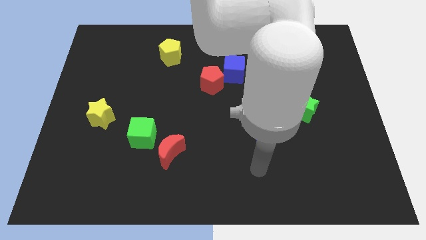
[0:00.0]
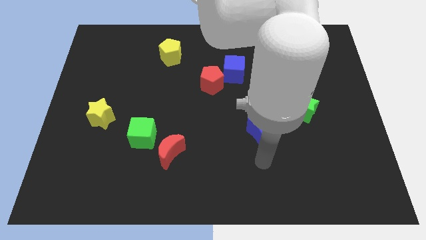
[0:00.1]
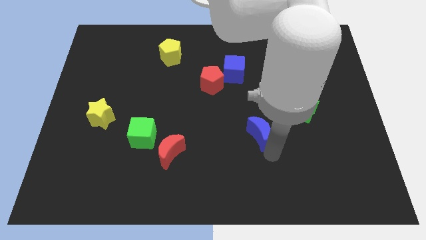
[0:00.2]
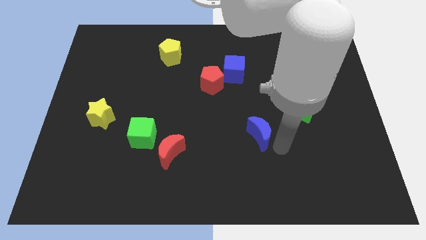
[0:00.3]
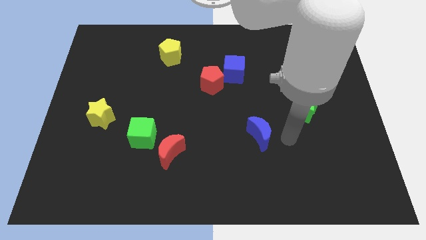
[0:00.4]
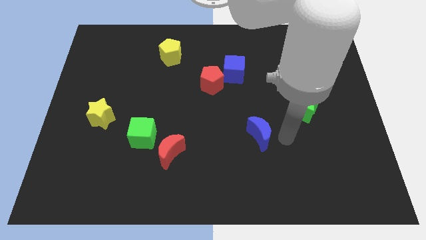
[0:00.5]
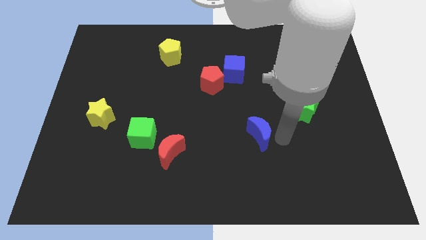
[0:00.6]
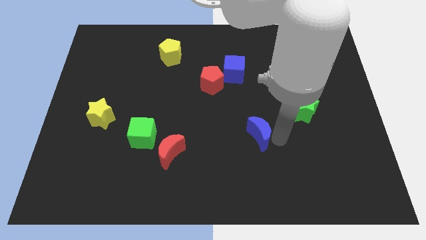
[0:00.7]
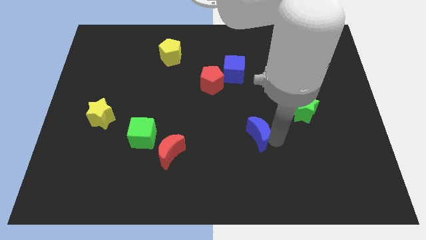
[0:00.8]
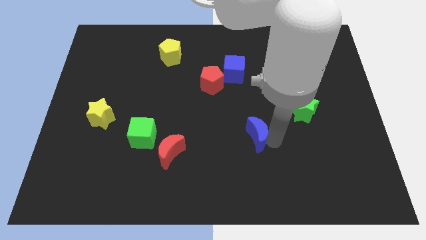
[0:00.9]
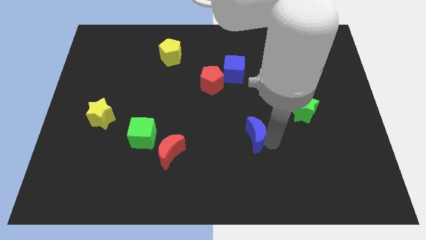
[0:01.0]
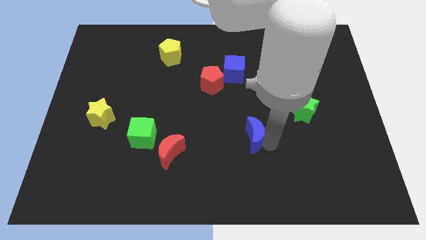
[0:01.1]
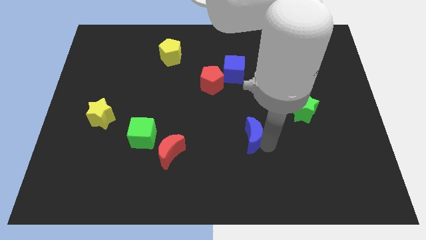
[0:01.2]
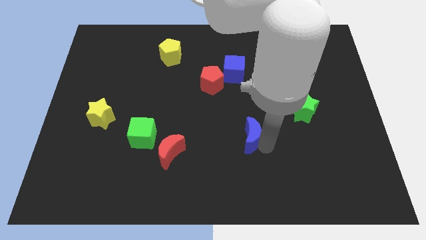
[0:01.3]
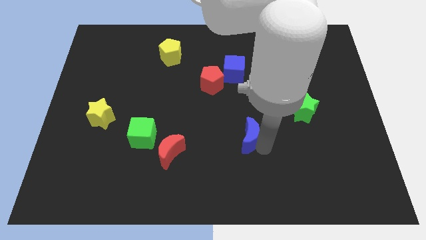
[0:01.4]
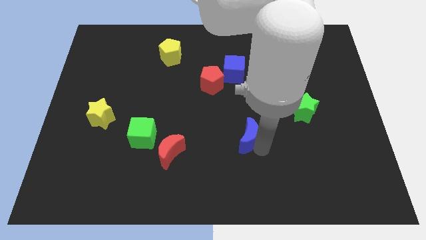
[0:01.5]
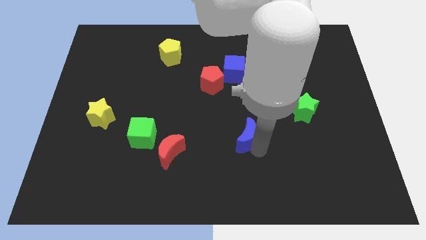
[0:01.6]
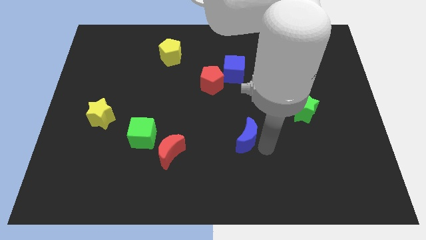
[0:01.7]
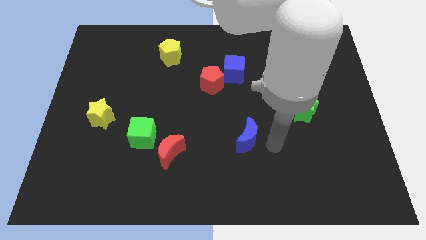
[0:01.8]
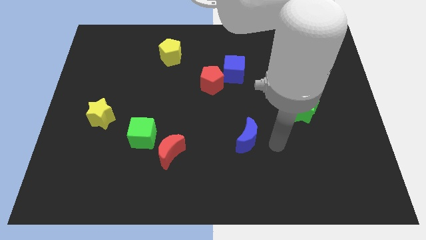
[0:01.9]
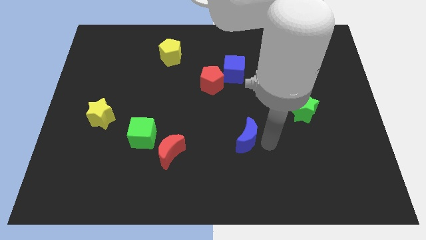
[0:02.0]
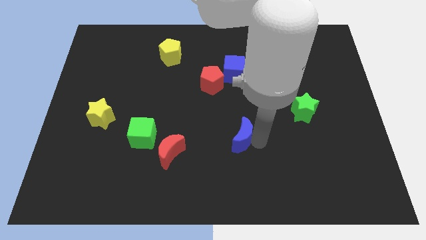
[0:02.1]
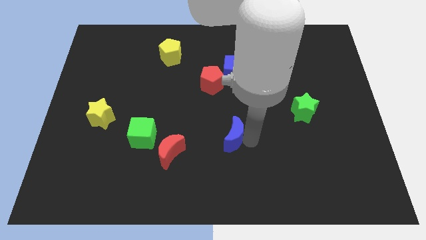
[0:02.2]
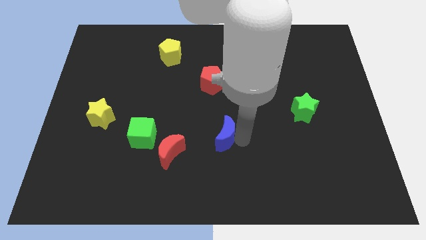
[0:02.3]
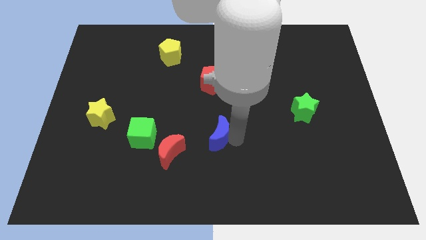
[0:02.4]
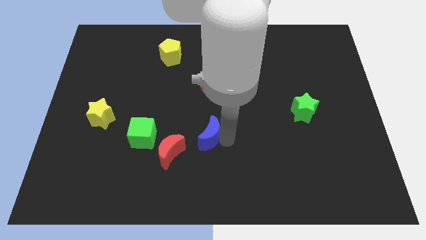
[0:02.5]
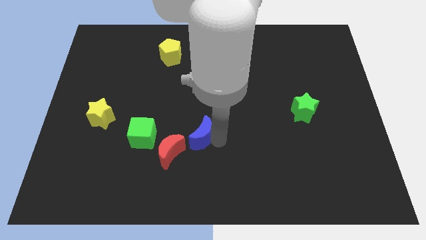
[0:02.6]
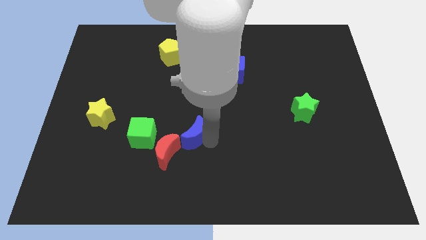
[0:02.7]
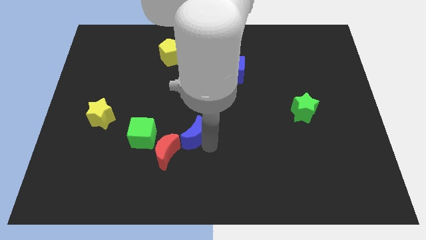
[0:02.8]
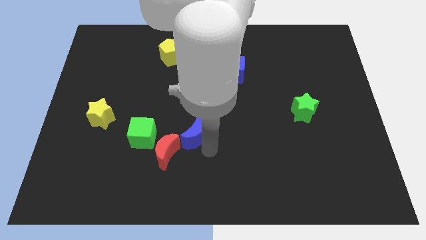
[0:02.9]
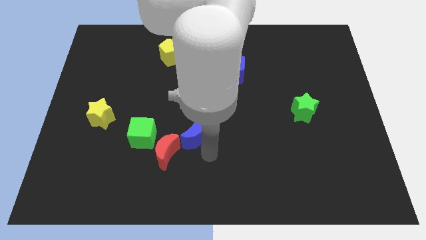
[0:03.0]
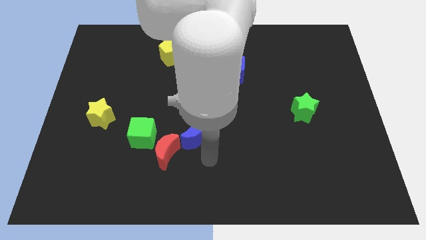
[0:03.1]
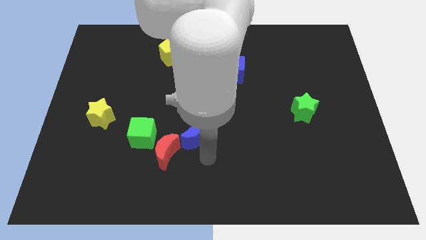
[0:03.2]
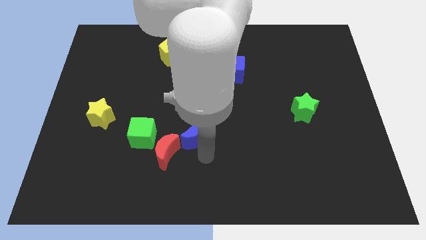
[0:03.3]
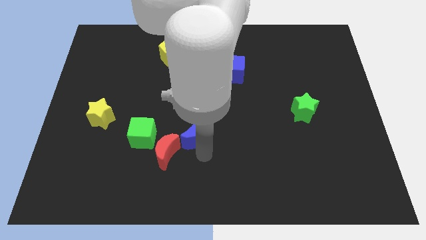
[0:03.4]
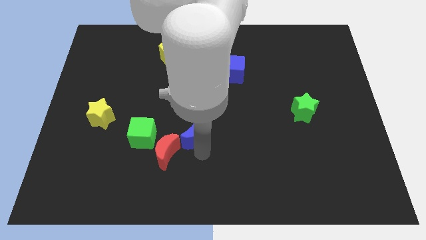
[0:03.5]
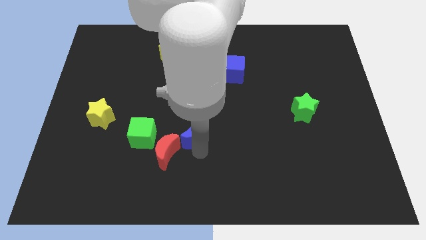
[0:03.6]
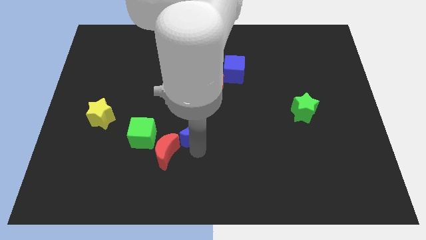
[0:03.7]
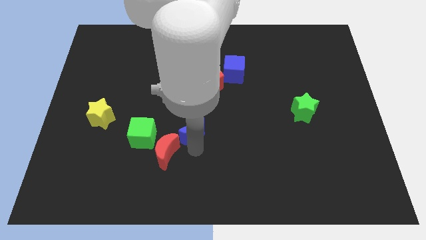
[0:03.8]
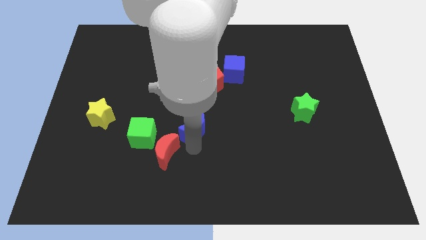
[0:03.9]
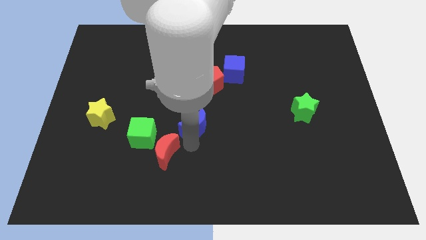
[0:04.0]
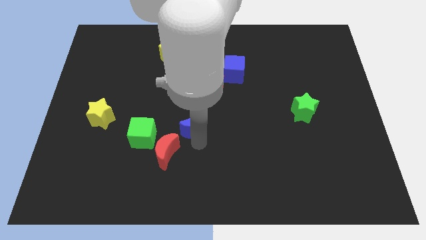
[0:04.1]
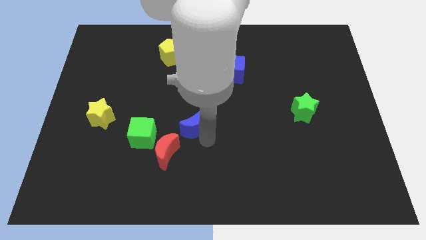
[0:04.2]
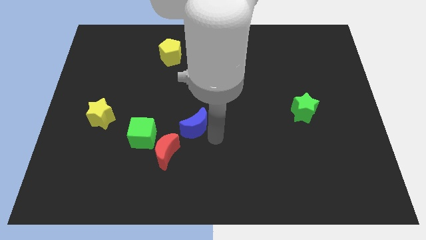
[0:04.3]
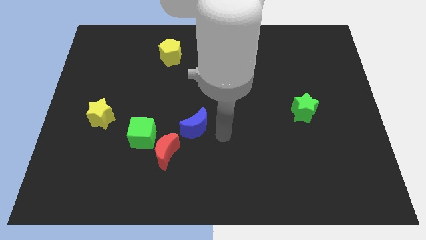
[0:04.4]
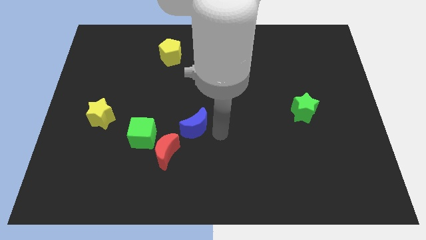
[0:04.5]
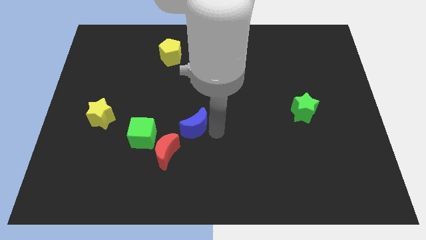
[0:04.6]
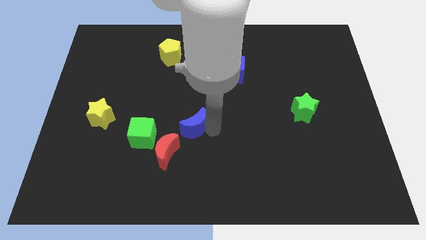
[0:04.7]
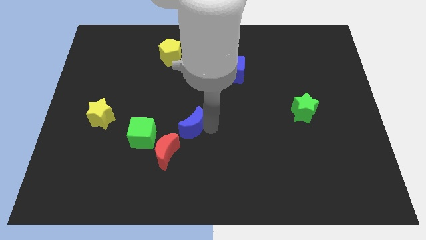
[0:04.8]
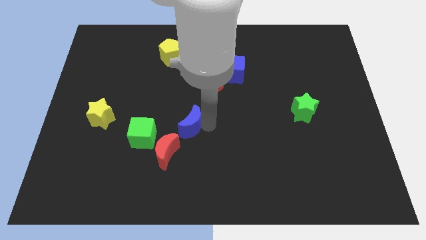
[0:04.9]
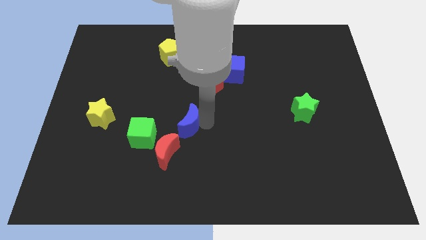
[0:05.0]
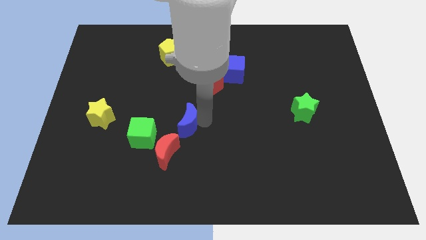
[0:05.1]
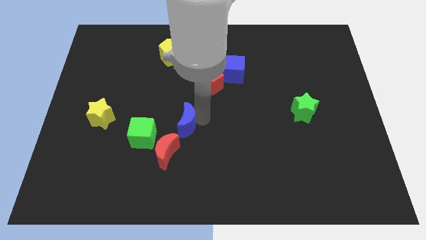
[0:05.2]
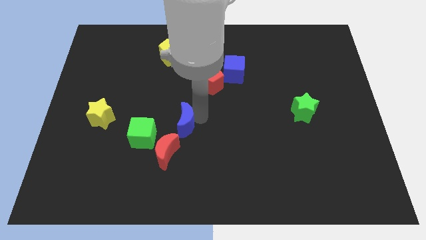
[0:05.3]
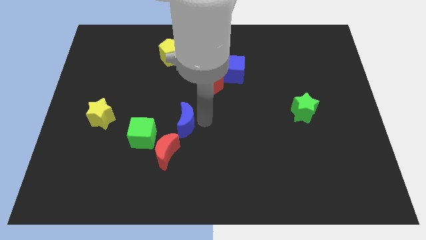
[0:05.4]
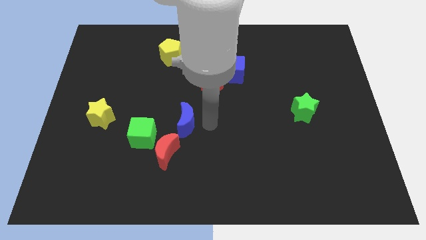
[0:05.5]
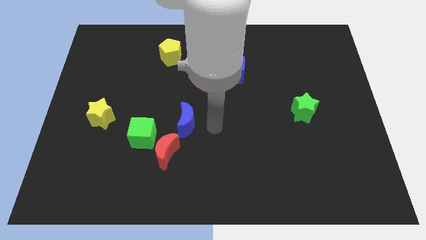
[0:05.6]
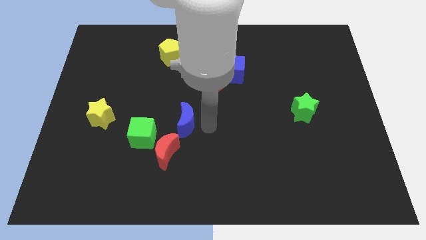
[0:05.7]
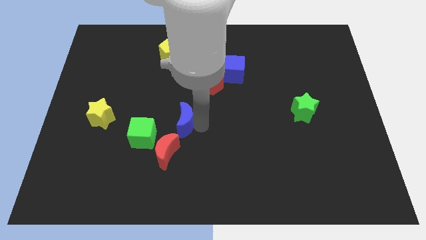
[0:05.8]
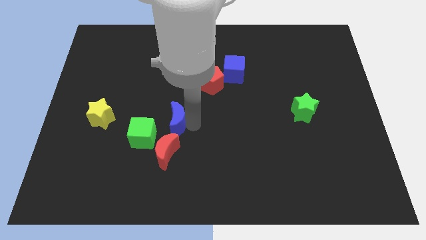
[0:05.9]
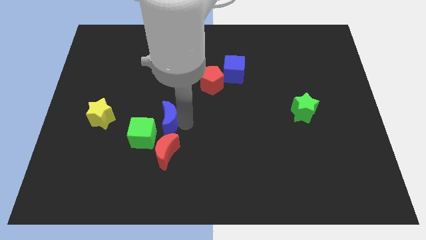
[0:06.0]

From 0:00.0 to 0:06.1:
move the blue moon to the left

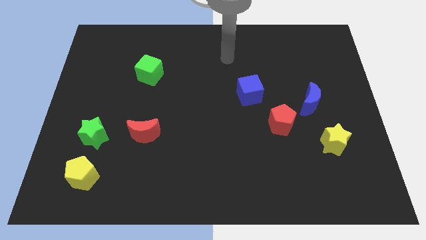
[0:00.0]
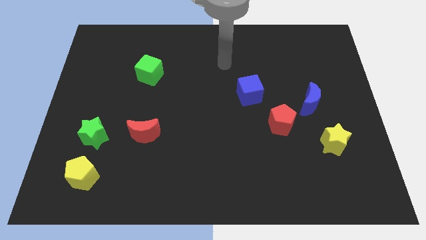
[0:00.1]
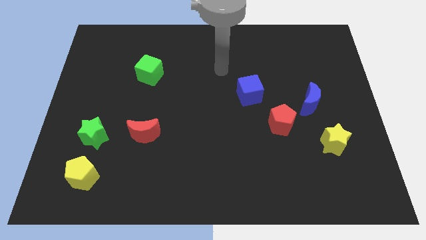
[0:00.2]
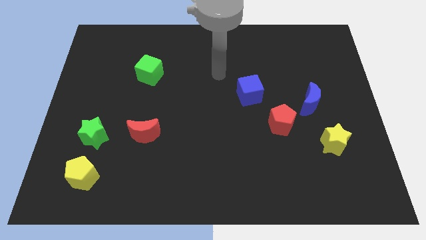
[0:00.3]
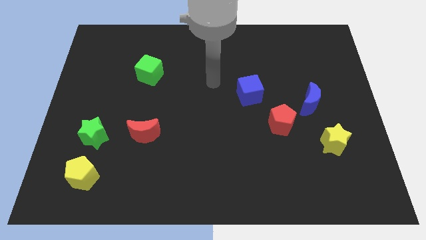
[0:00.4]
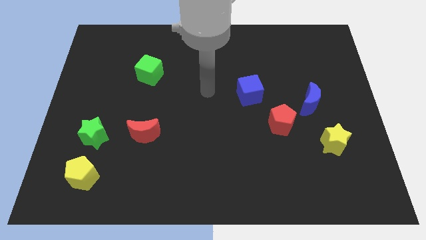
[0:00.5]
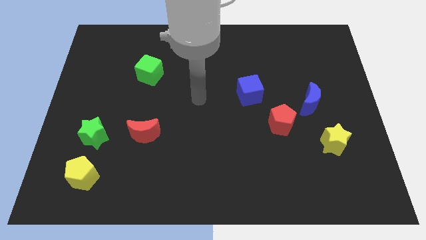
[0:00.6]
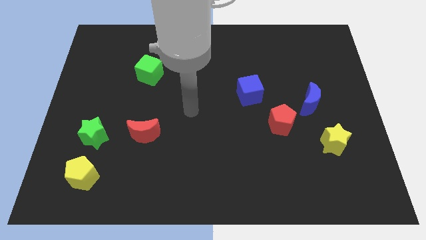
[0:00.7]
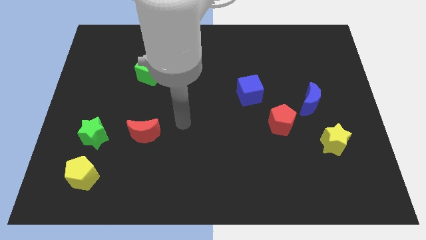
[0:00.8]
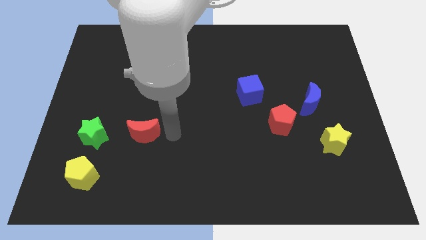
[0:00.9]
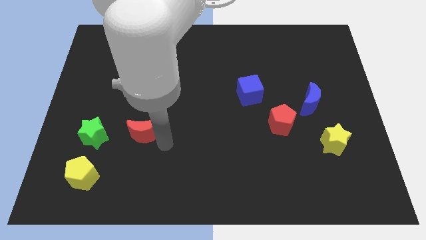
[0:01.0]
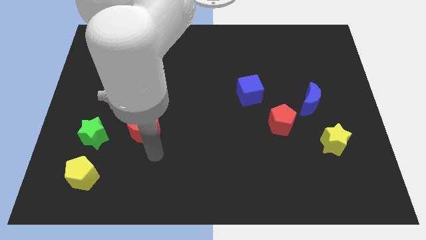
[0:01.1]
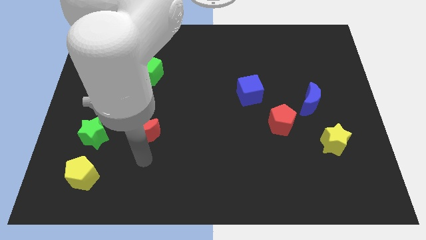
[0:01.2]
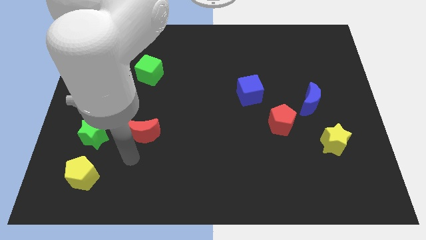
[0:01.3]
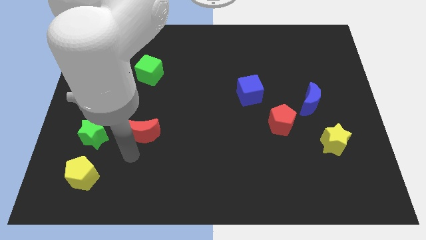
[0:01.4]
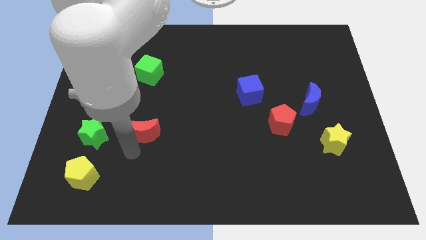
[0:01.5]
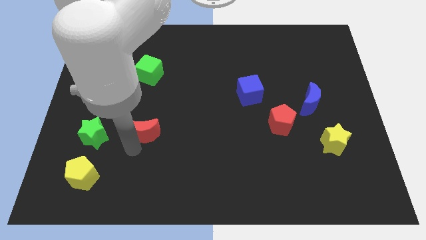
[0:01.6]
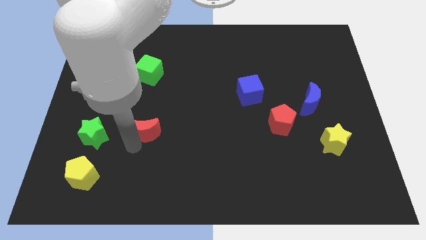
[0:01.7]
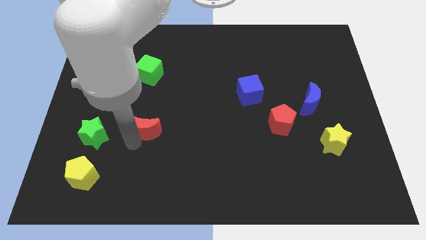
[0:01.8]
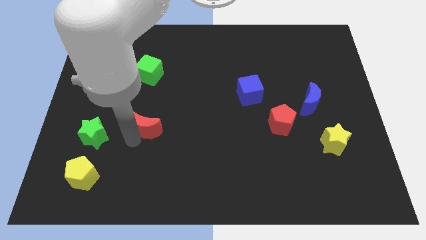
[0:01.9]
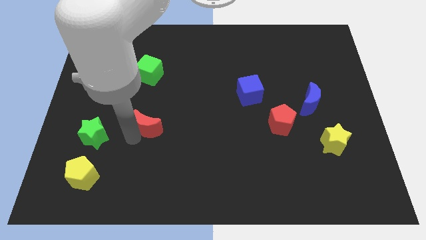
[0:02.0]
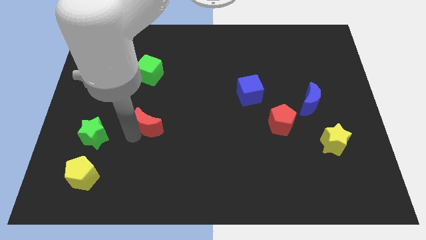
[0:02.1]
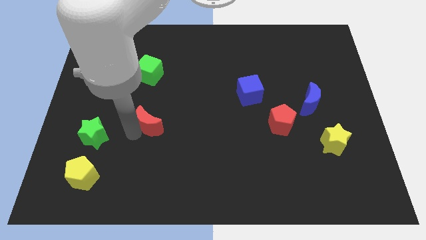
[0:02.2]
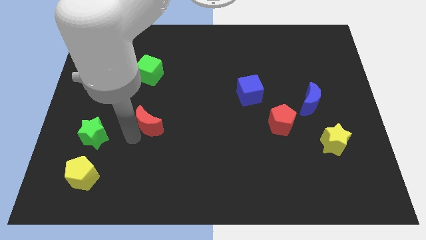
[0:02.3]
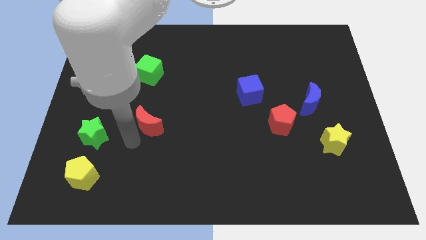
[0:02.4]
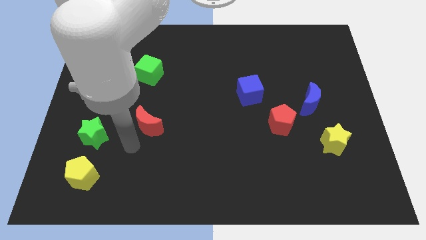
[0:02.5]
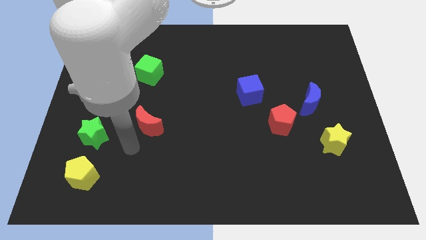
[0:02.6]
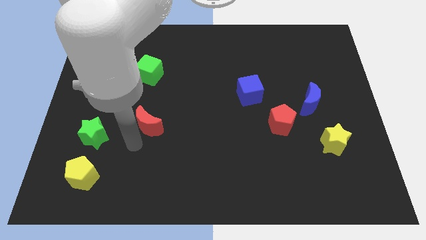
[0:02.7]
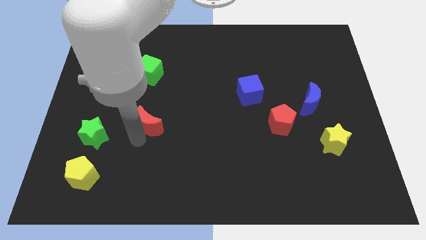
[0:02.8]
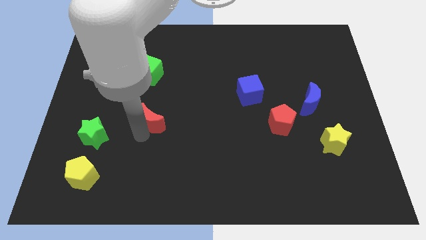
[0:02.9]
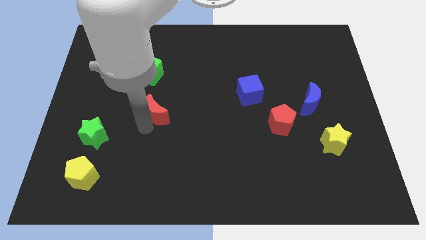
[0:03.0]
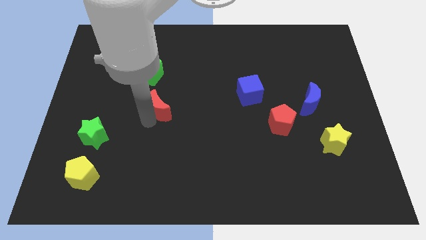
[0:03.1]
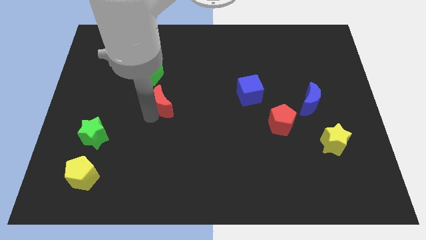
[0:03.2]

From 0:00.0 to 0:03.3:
slightly push the red moon upwards and right diagonally
